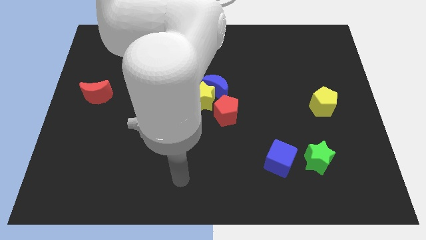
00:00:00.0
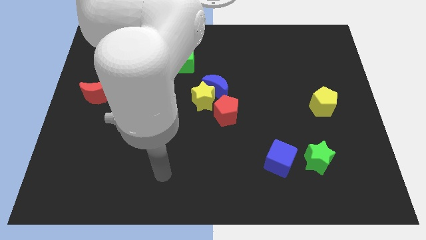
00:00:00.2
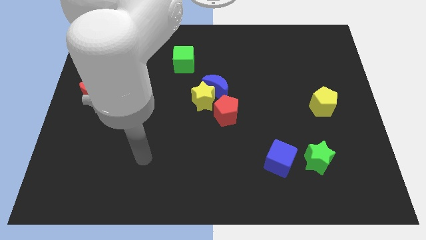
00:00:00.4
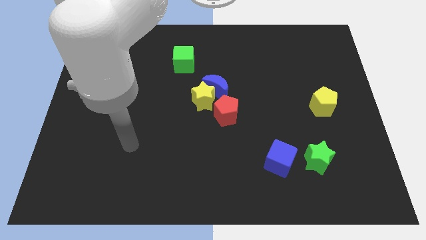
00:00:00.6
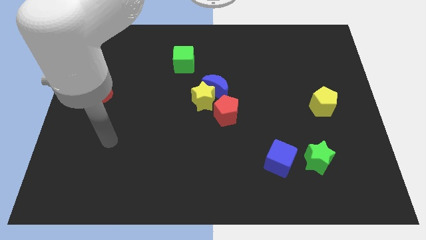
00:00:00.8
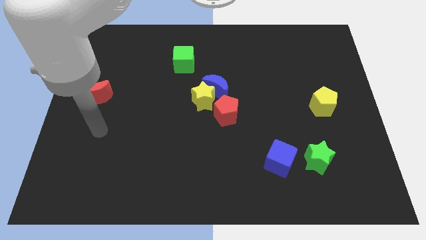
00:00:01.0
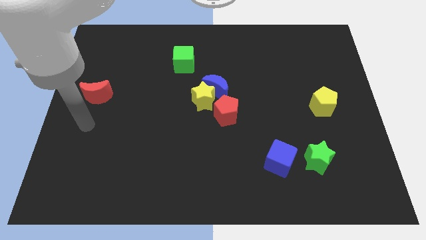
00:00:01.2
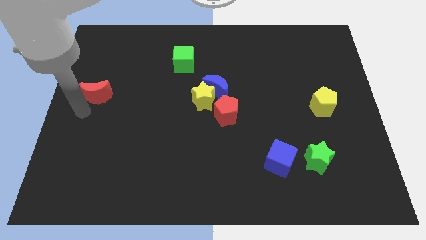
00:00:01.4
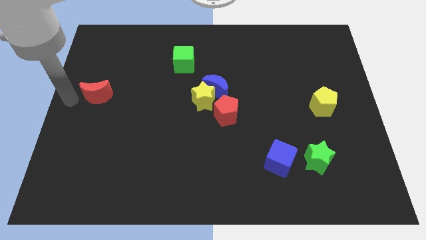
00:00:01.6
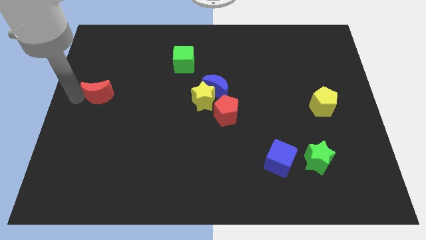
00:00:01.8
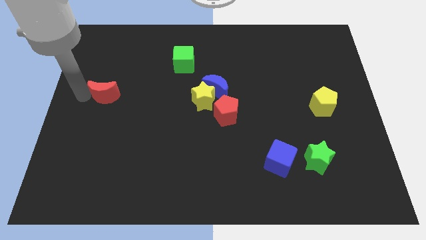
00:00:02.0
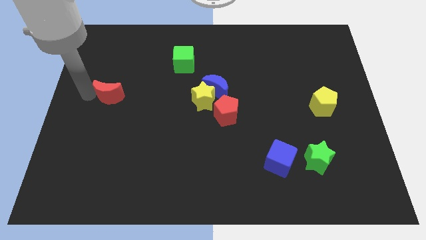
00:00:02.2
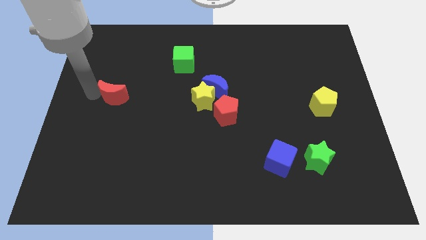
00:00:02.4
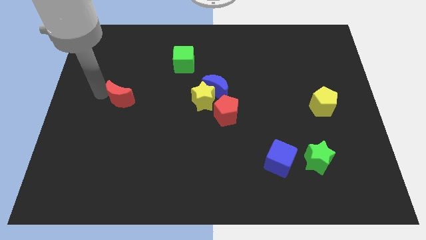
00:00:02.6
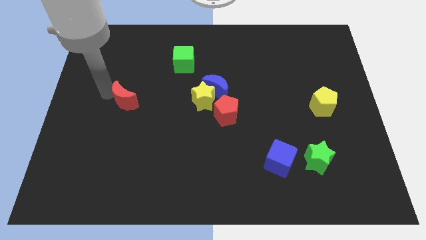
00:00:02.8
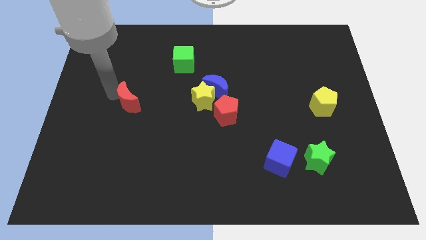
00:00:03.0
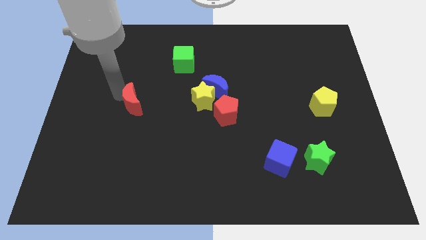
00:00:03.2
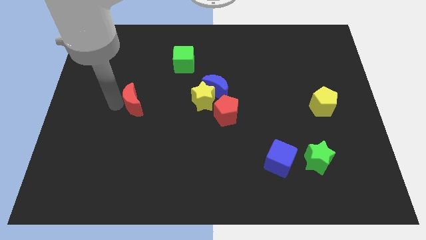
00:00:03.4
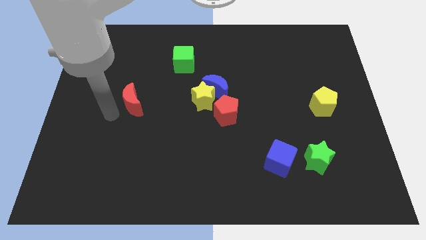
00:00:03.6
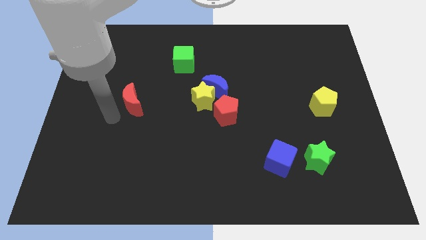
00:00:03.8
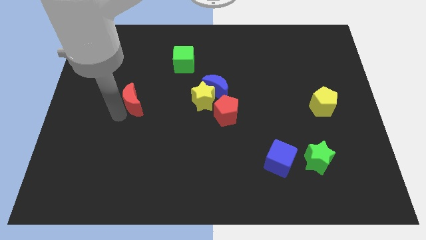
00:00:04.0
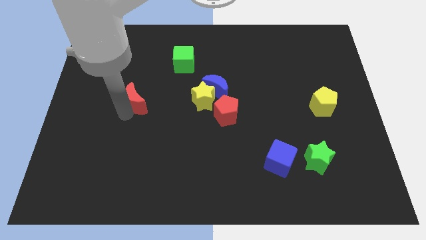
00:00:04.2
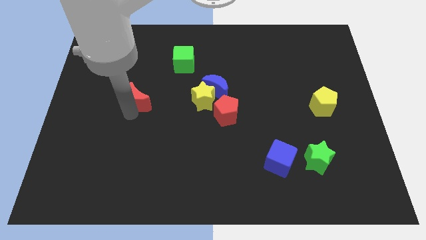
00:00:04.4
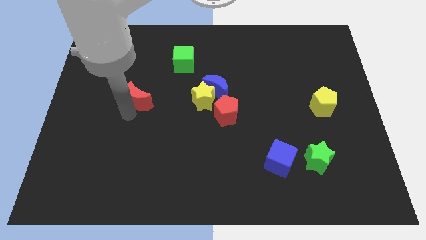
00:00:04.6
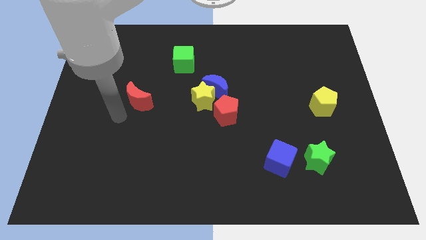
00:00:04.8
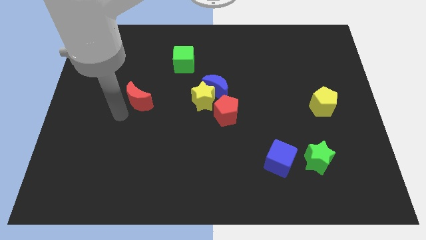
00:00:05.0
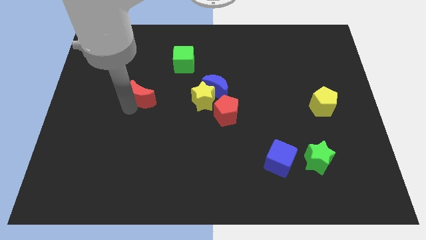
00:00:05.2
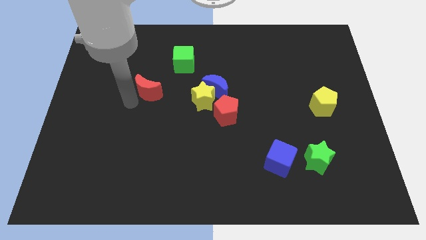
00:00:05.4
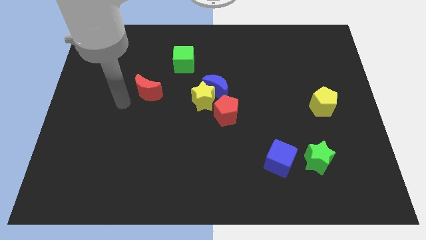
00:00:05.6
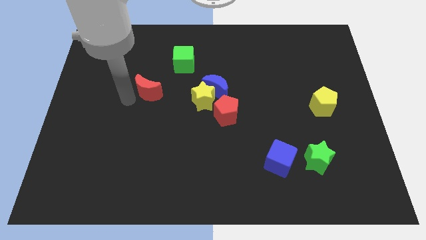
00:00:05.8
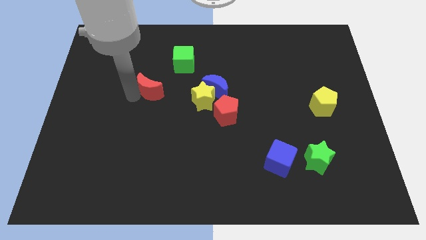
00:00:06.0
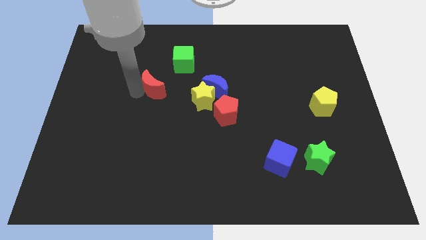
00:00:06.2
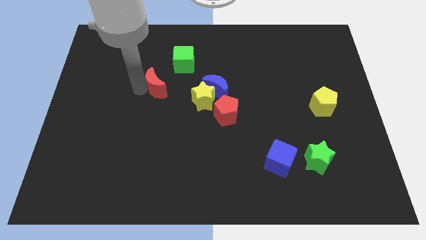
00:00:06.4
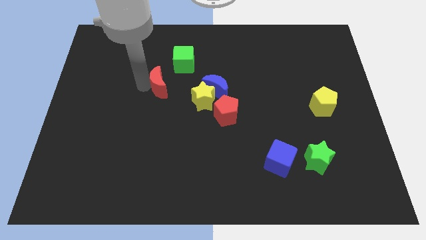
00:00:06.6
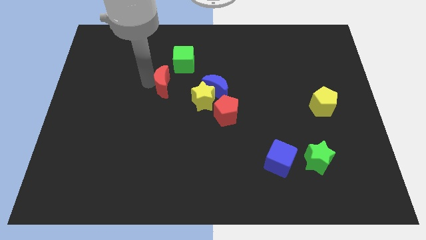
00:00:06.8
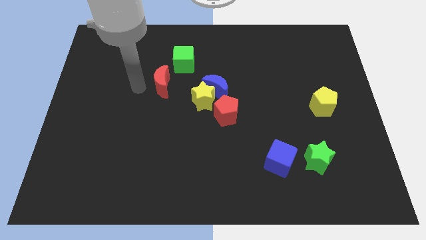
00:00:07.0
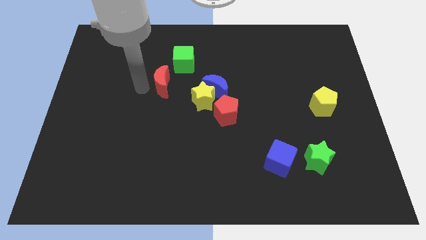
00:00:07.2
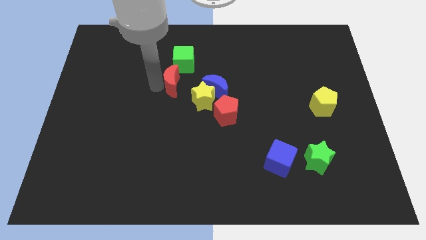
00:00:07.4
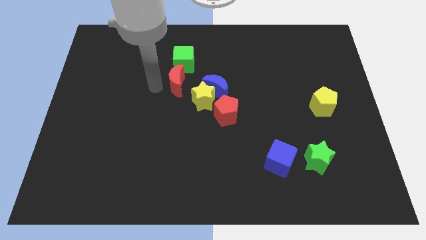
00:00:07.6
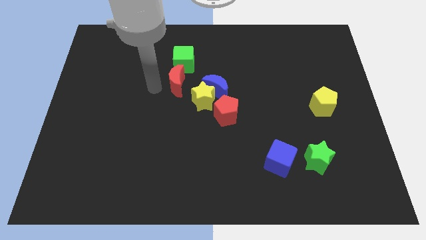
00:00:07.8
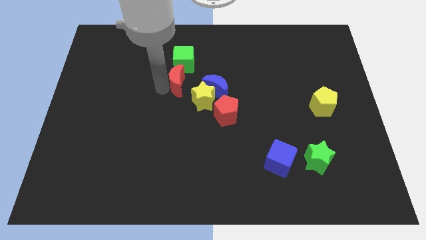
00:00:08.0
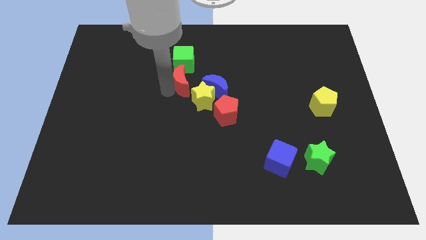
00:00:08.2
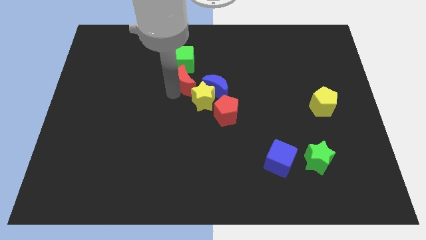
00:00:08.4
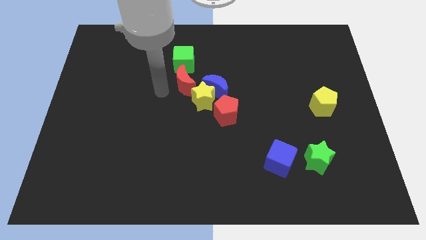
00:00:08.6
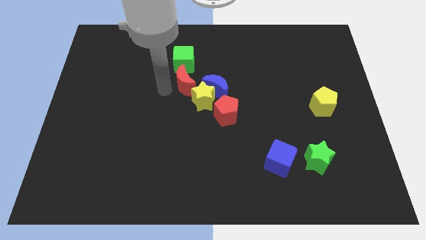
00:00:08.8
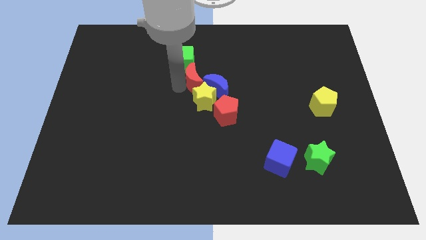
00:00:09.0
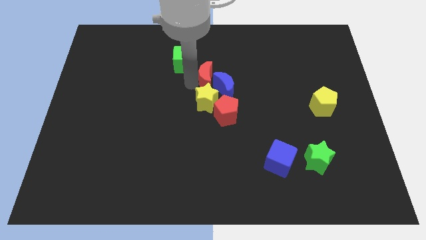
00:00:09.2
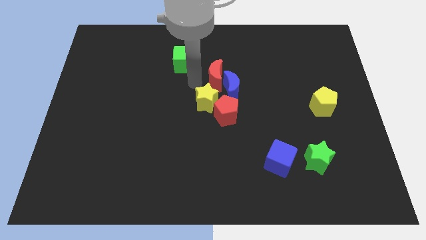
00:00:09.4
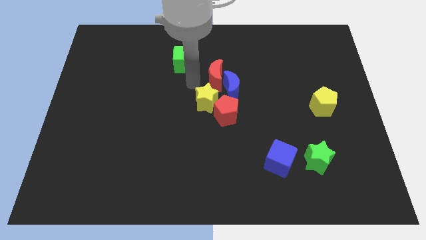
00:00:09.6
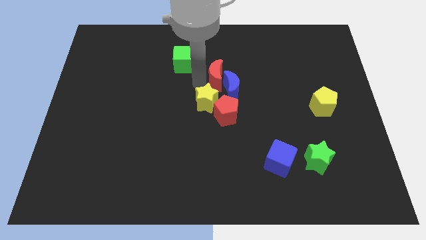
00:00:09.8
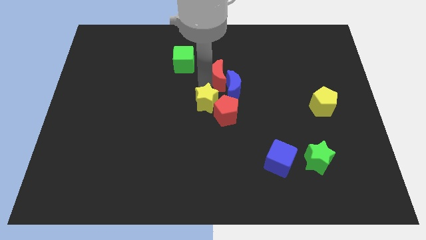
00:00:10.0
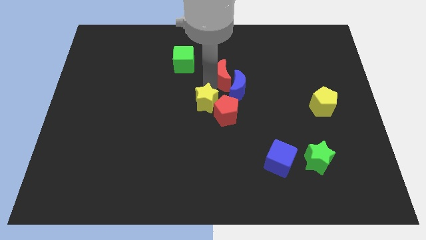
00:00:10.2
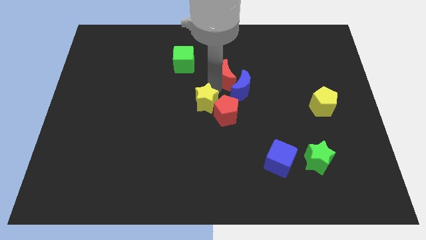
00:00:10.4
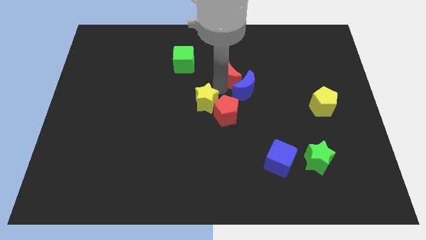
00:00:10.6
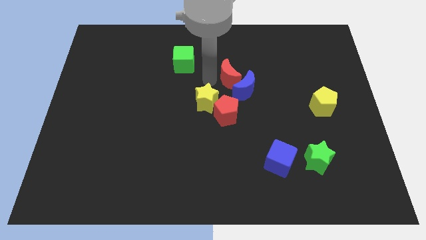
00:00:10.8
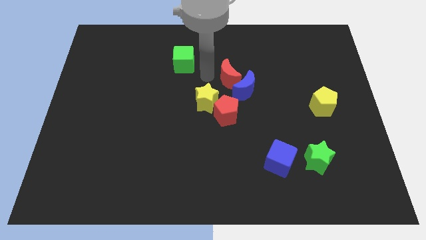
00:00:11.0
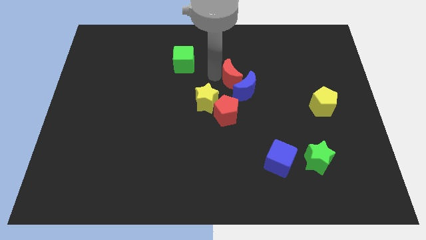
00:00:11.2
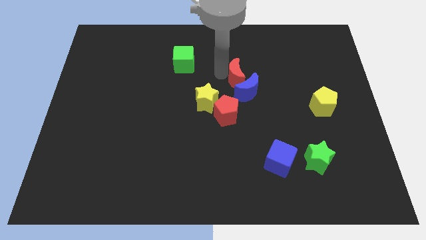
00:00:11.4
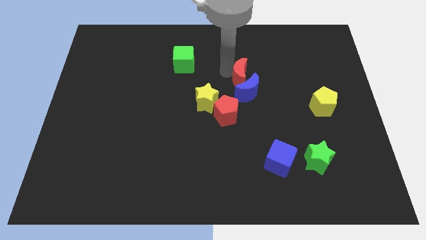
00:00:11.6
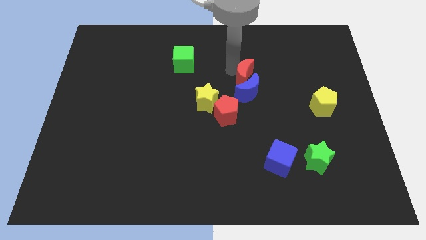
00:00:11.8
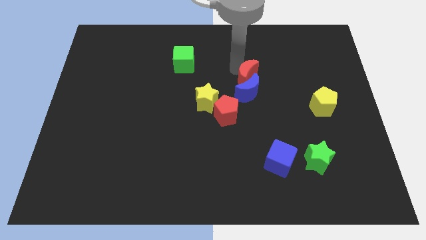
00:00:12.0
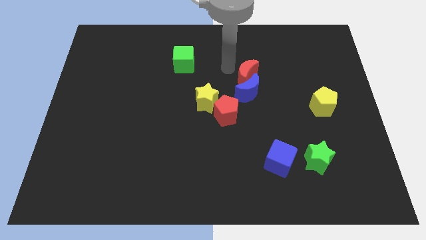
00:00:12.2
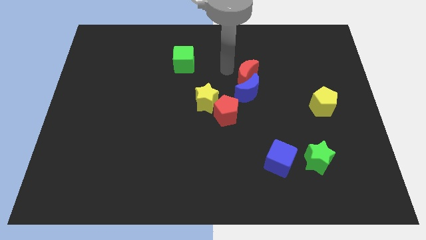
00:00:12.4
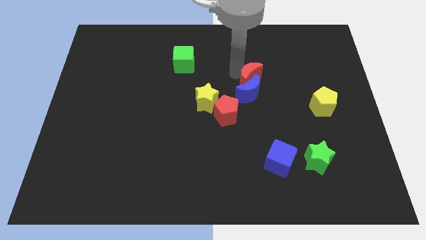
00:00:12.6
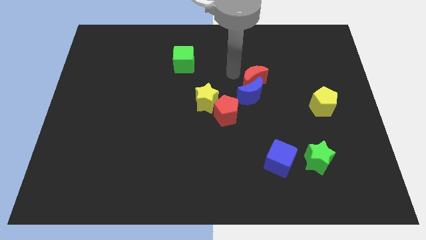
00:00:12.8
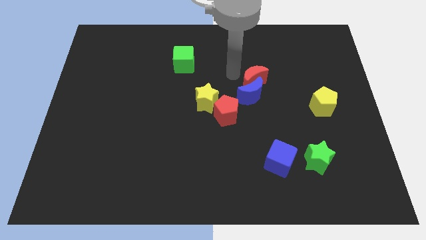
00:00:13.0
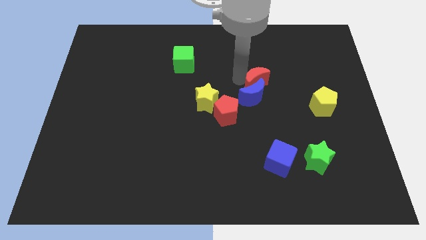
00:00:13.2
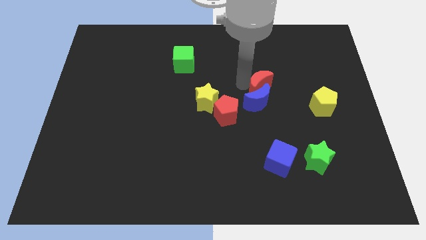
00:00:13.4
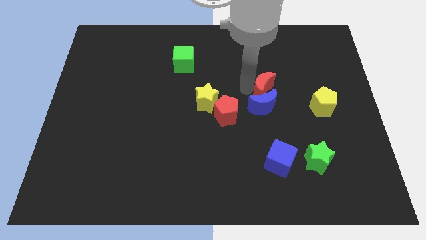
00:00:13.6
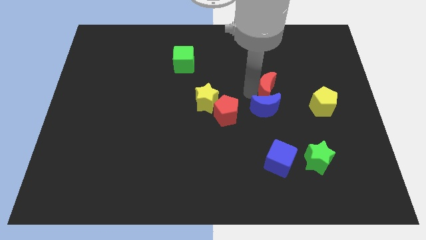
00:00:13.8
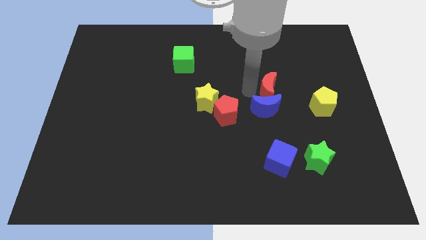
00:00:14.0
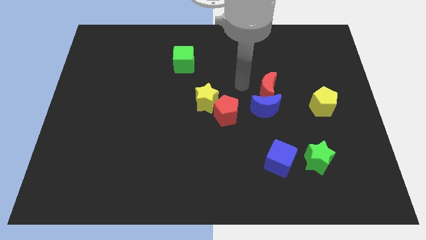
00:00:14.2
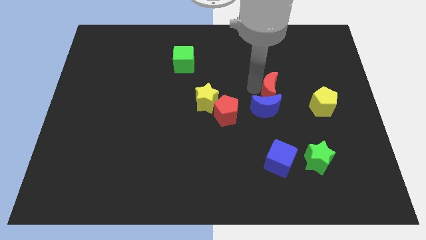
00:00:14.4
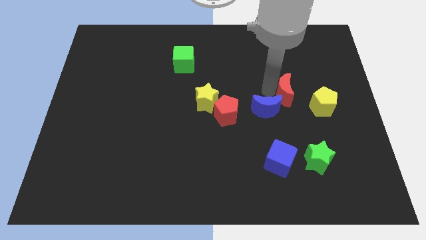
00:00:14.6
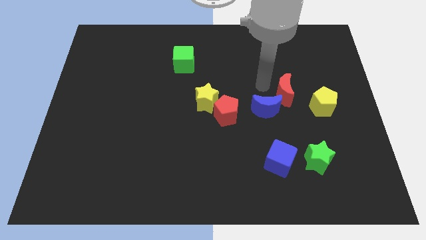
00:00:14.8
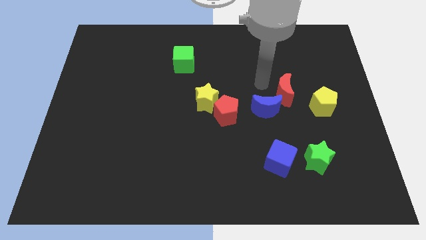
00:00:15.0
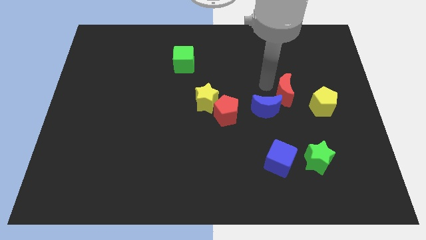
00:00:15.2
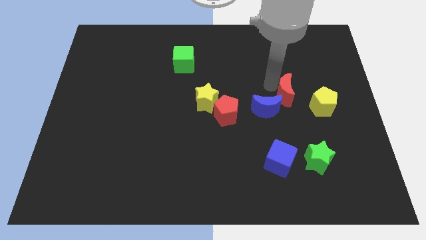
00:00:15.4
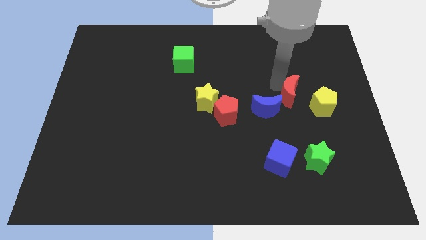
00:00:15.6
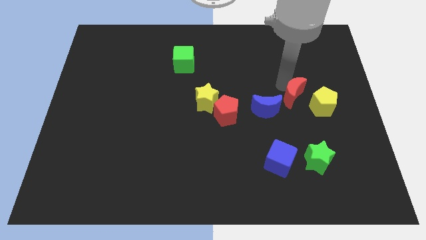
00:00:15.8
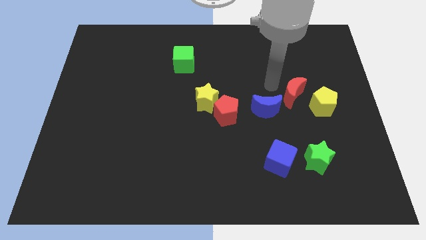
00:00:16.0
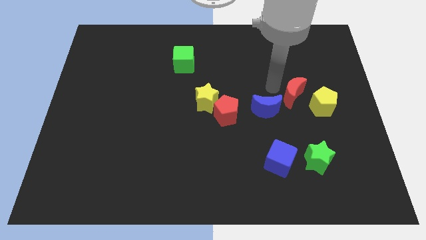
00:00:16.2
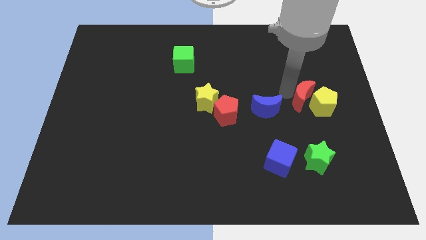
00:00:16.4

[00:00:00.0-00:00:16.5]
push the red moon next to the yellow pentagon
